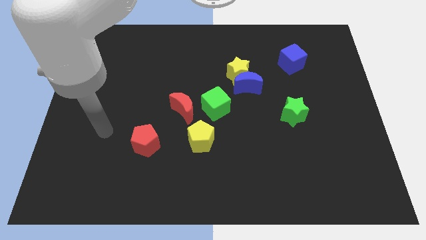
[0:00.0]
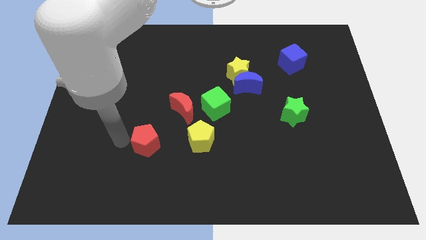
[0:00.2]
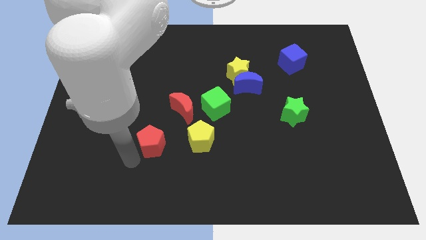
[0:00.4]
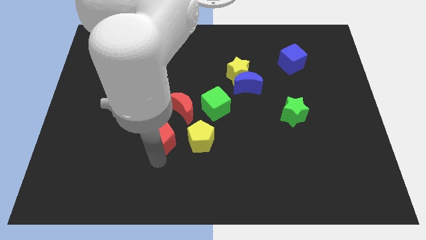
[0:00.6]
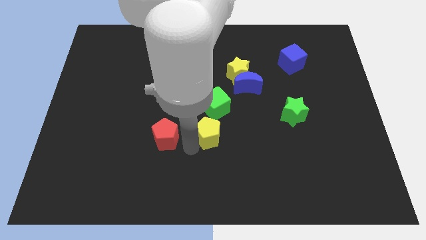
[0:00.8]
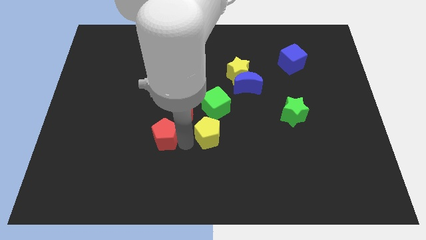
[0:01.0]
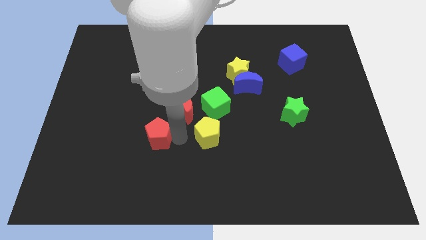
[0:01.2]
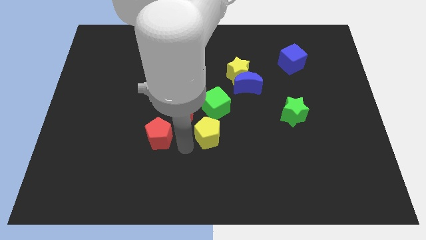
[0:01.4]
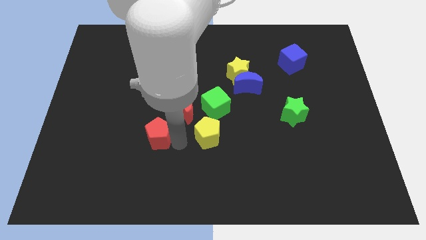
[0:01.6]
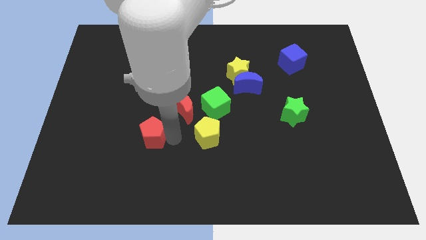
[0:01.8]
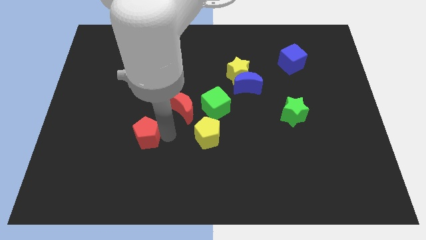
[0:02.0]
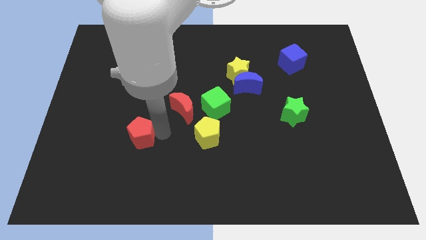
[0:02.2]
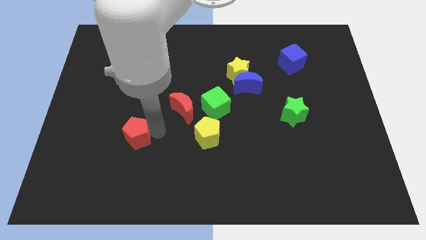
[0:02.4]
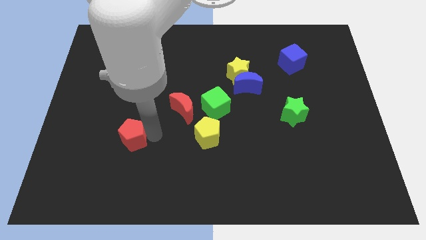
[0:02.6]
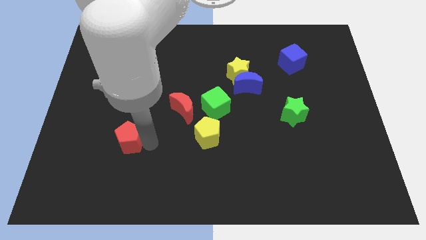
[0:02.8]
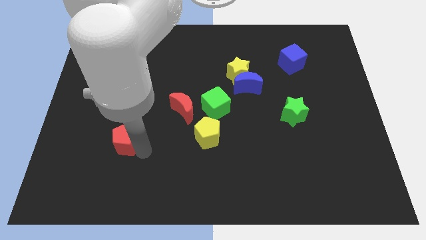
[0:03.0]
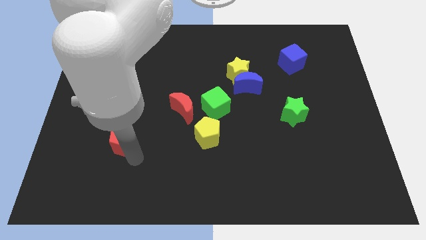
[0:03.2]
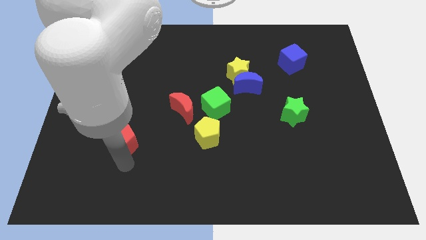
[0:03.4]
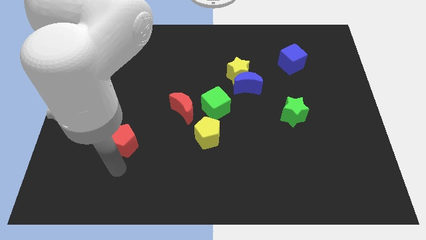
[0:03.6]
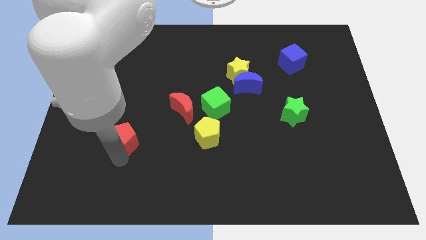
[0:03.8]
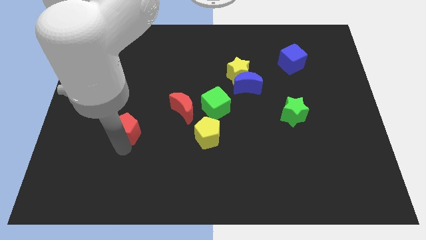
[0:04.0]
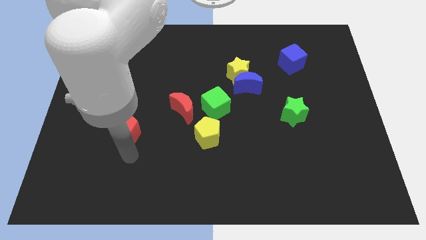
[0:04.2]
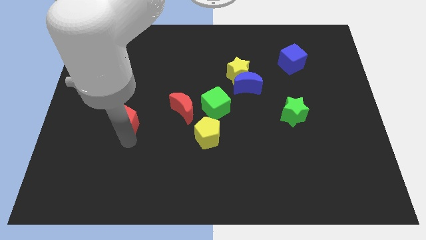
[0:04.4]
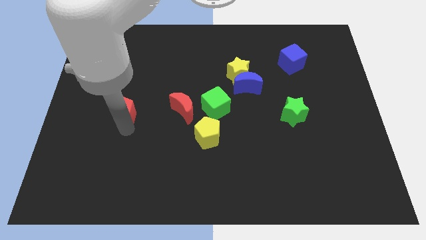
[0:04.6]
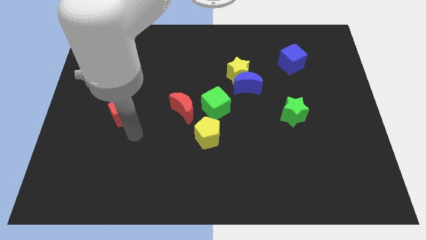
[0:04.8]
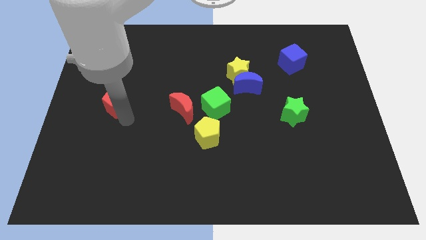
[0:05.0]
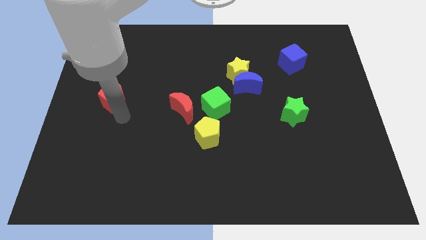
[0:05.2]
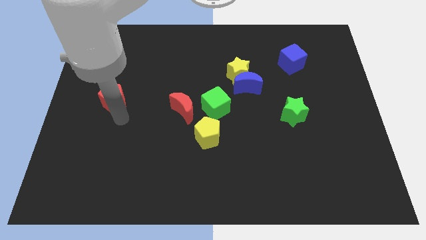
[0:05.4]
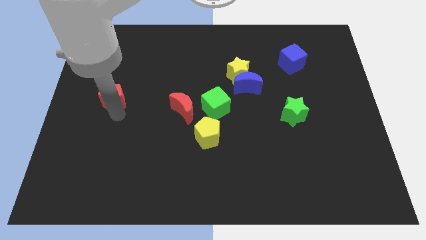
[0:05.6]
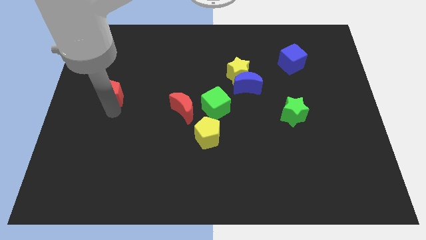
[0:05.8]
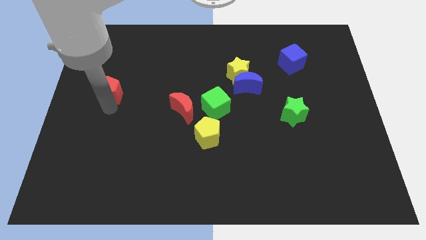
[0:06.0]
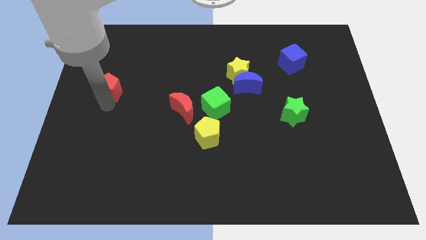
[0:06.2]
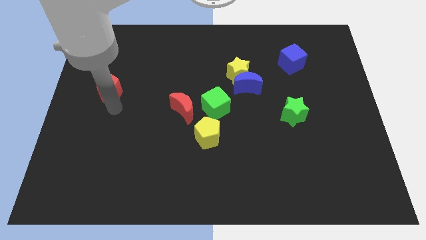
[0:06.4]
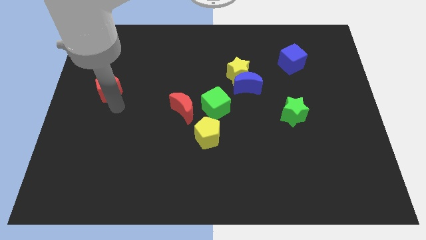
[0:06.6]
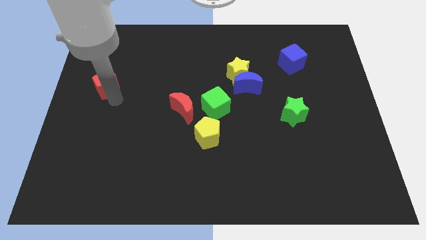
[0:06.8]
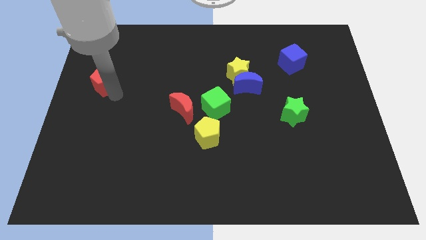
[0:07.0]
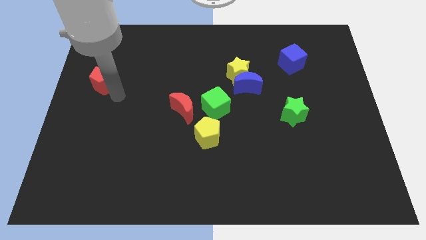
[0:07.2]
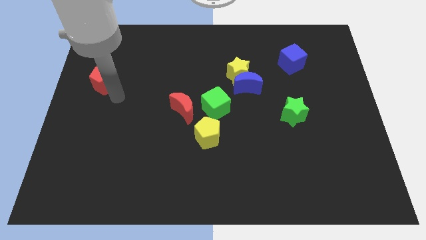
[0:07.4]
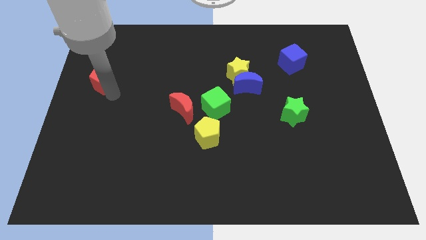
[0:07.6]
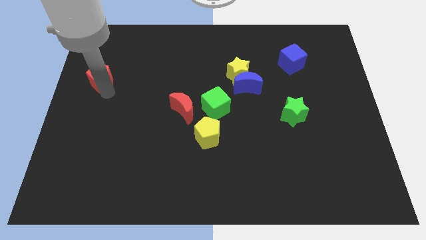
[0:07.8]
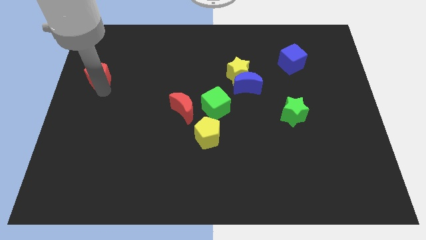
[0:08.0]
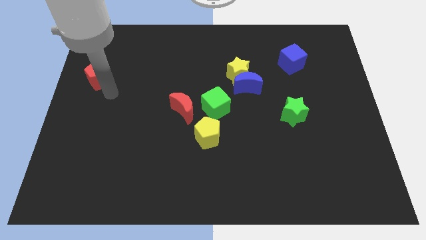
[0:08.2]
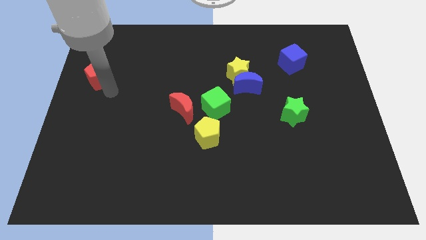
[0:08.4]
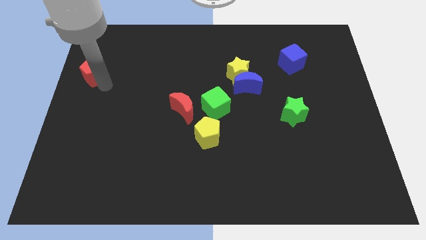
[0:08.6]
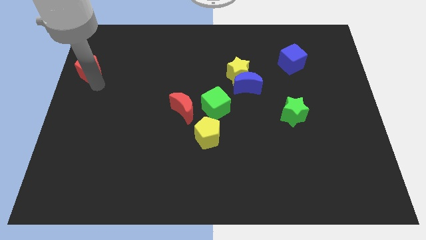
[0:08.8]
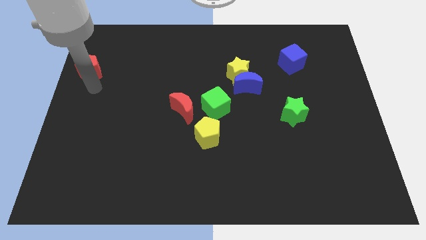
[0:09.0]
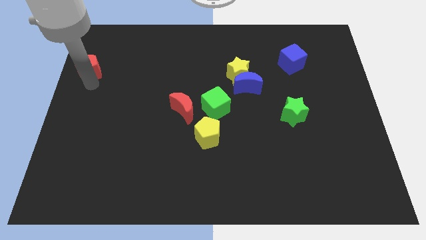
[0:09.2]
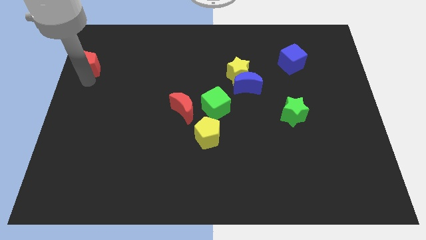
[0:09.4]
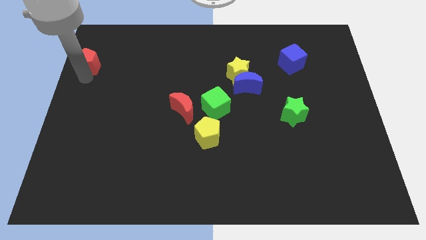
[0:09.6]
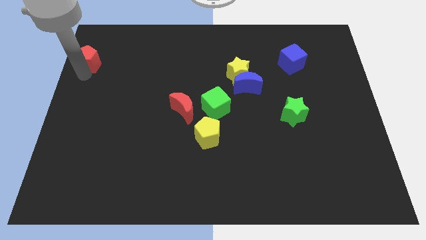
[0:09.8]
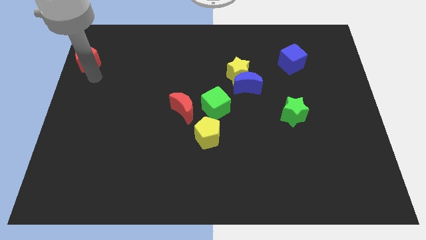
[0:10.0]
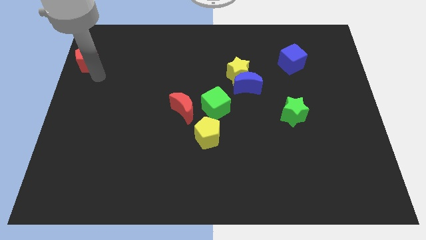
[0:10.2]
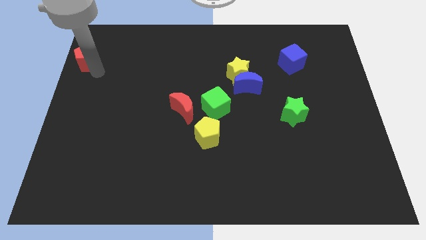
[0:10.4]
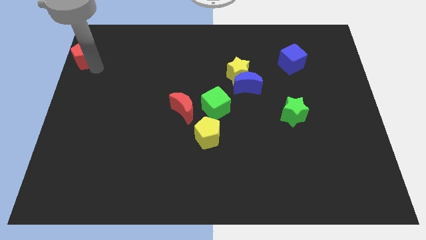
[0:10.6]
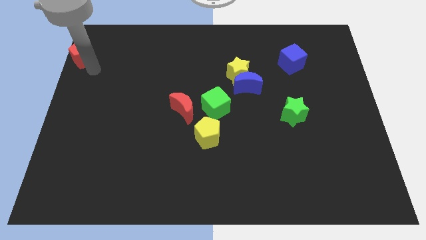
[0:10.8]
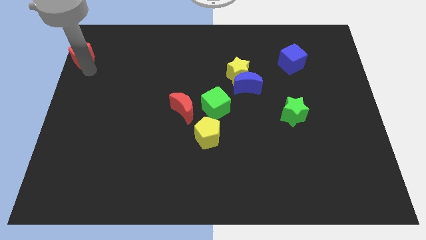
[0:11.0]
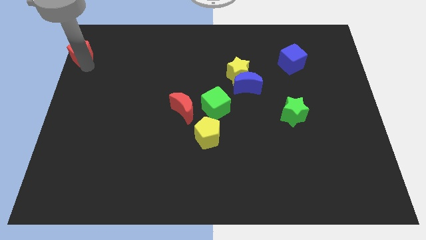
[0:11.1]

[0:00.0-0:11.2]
put the red pentagon to the top left
